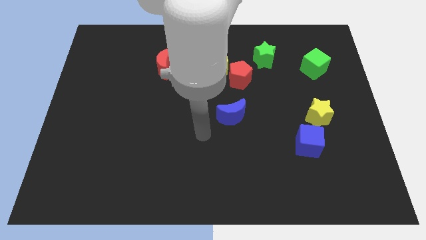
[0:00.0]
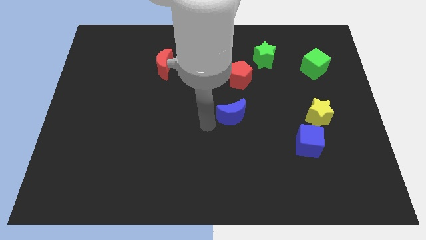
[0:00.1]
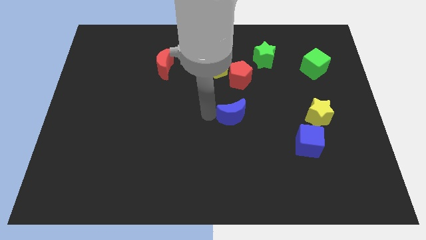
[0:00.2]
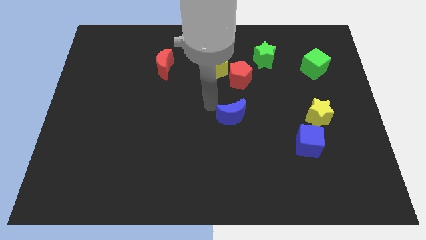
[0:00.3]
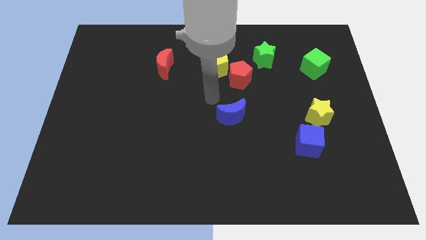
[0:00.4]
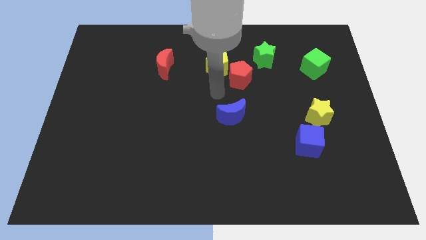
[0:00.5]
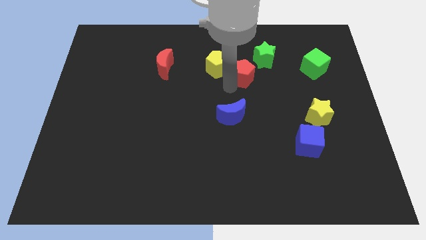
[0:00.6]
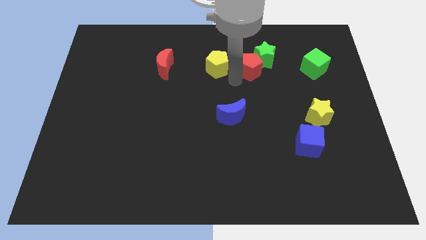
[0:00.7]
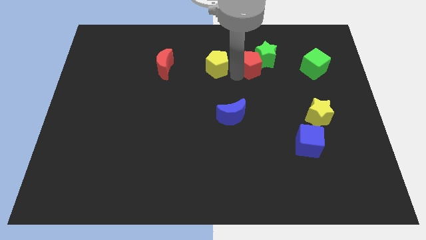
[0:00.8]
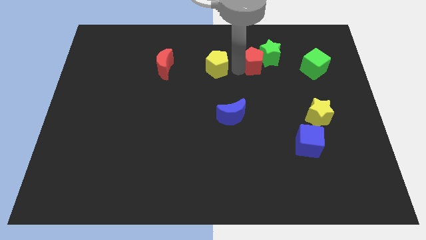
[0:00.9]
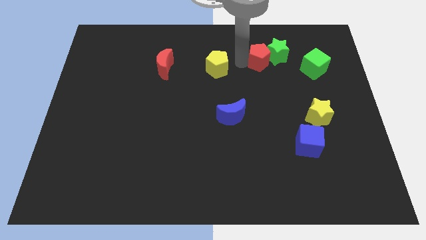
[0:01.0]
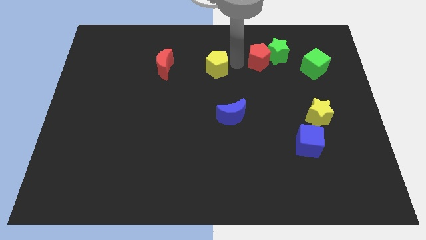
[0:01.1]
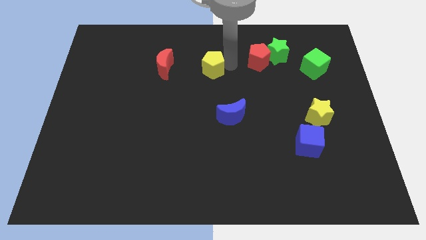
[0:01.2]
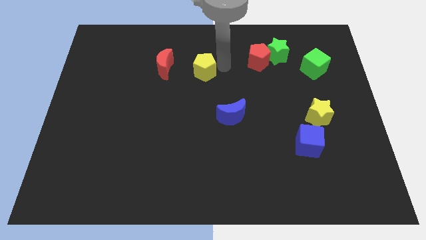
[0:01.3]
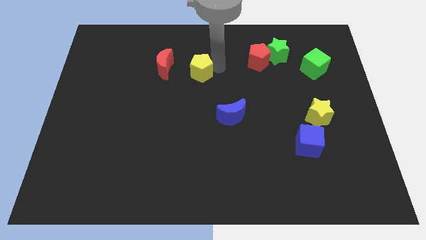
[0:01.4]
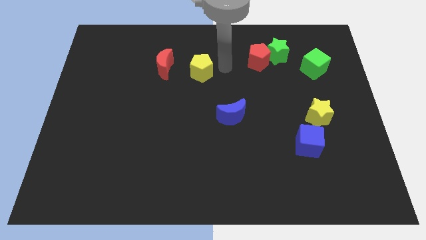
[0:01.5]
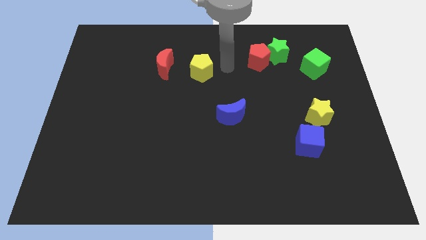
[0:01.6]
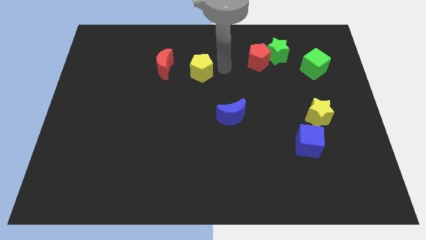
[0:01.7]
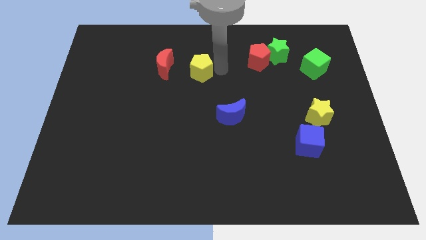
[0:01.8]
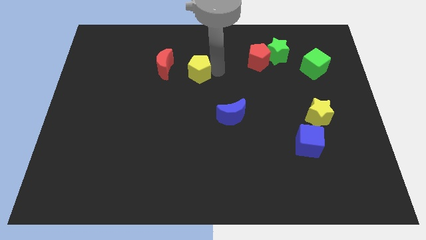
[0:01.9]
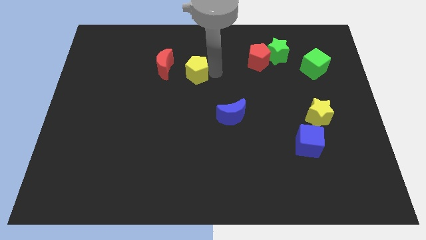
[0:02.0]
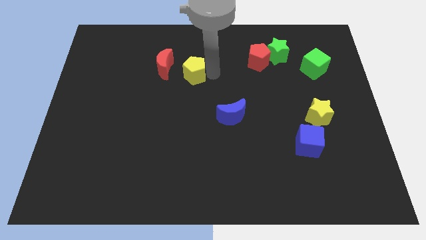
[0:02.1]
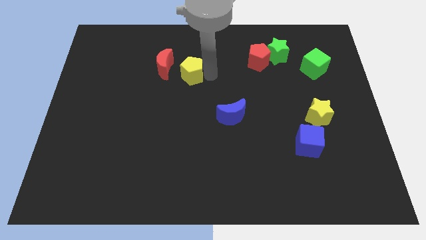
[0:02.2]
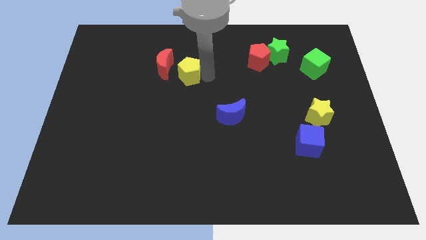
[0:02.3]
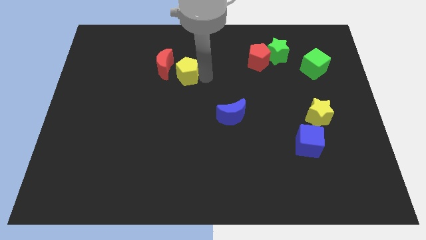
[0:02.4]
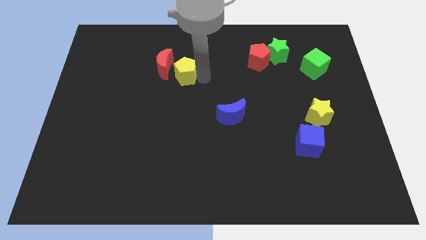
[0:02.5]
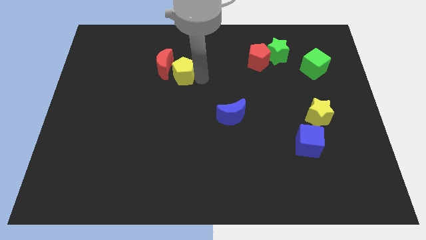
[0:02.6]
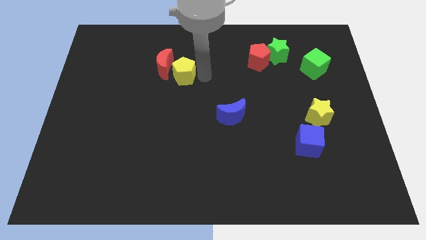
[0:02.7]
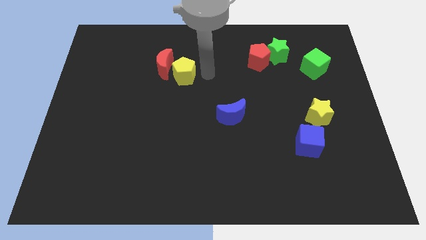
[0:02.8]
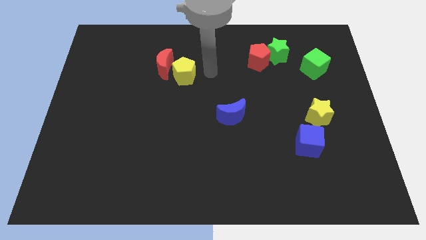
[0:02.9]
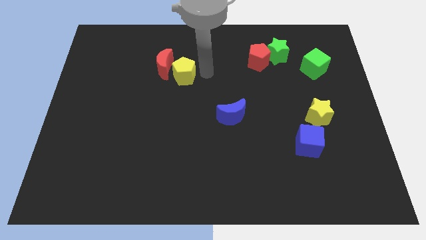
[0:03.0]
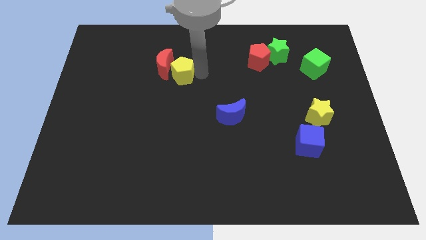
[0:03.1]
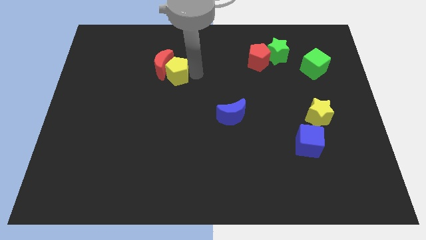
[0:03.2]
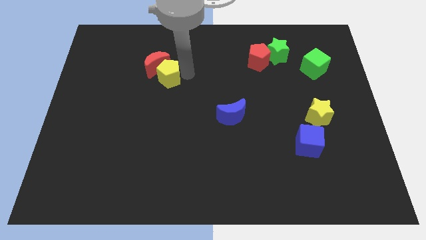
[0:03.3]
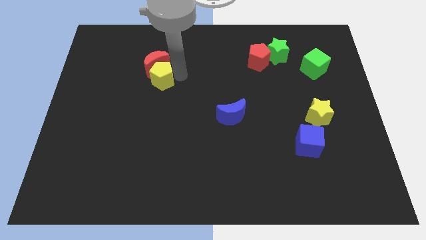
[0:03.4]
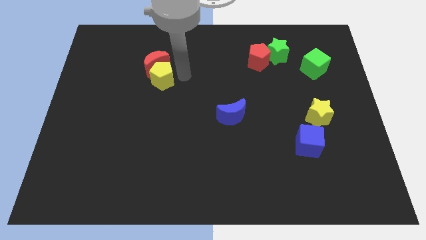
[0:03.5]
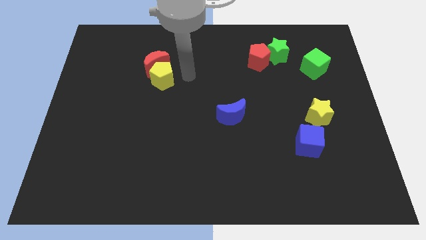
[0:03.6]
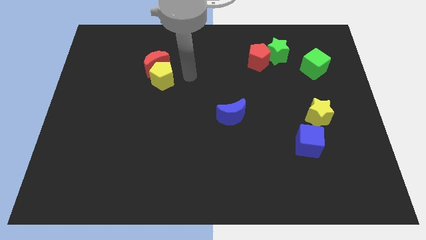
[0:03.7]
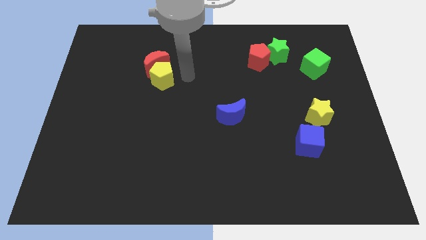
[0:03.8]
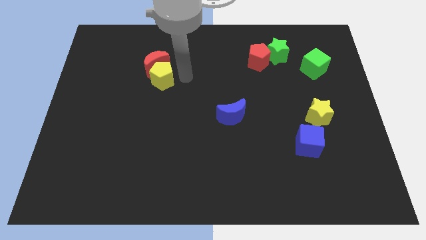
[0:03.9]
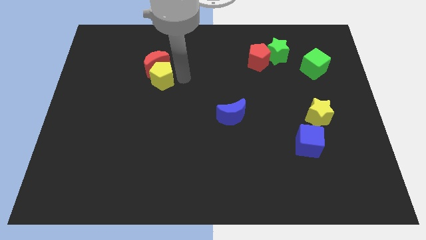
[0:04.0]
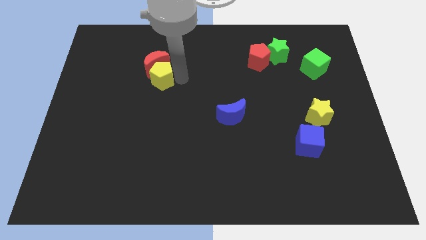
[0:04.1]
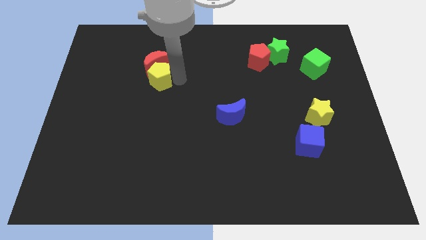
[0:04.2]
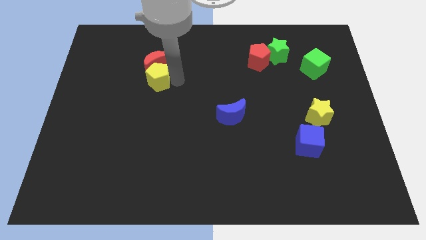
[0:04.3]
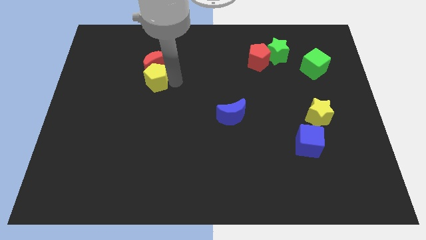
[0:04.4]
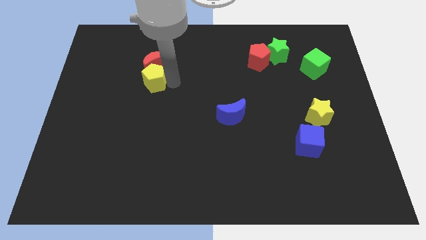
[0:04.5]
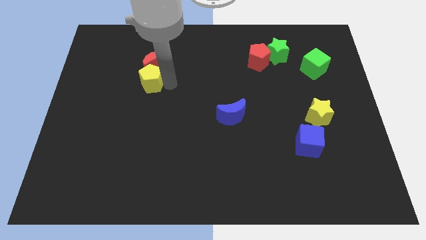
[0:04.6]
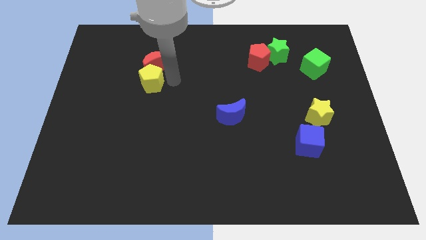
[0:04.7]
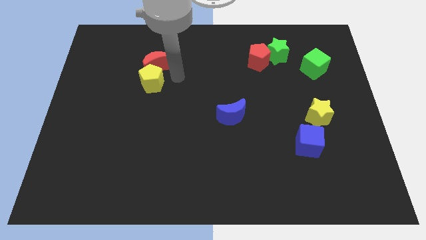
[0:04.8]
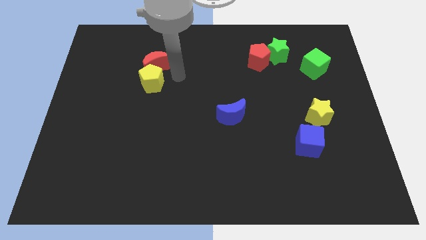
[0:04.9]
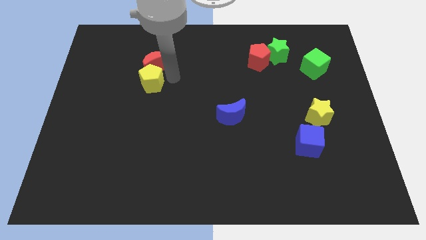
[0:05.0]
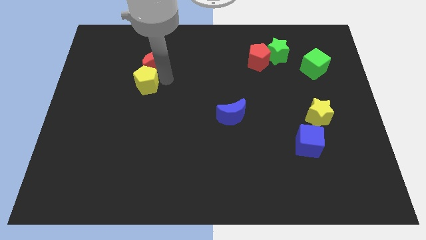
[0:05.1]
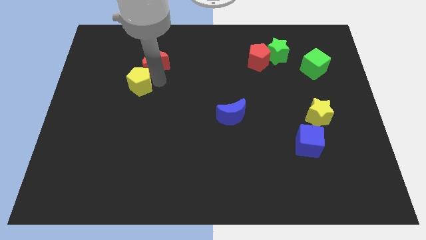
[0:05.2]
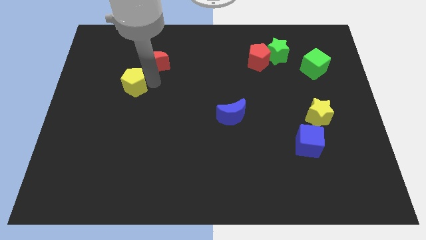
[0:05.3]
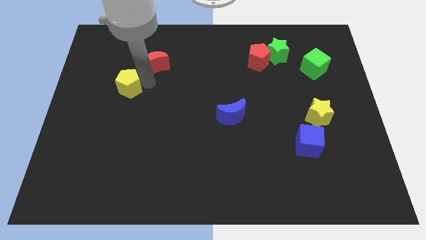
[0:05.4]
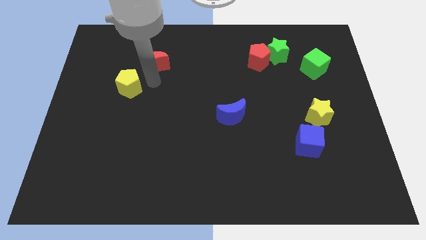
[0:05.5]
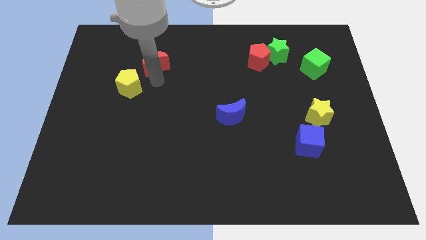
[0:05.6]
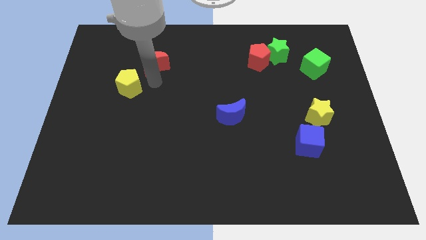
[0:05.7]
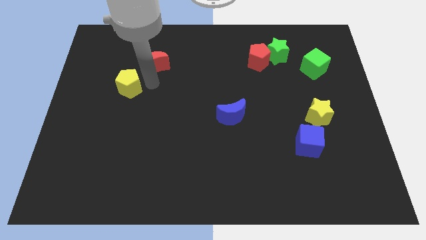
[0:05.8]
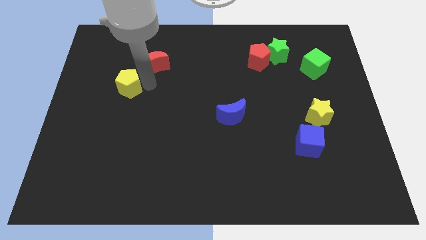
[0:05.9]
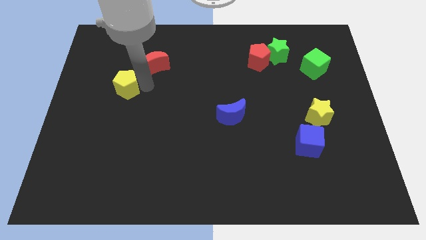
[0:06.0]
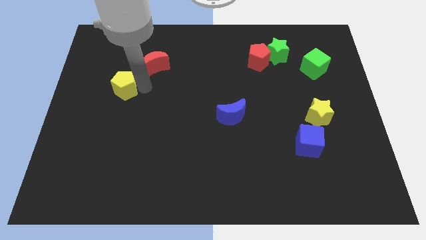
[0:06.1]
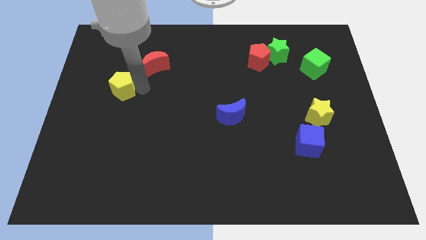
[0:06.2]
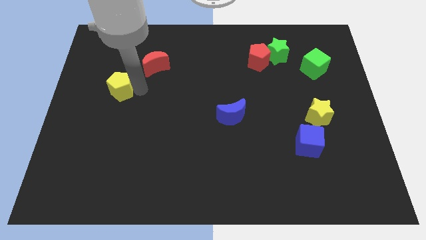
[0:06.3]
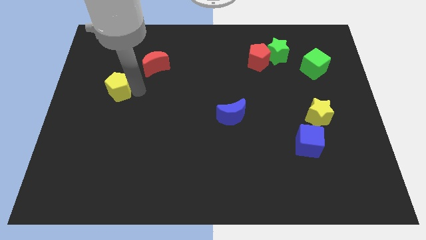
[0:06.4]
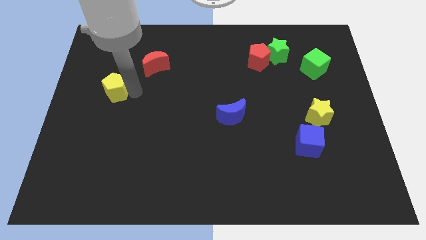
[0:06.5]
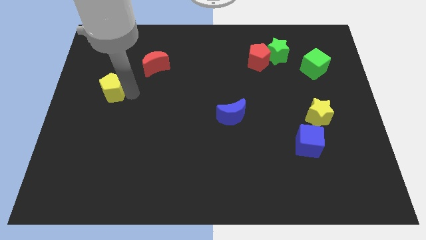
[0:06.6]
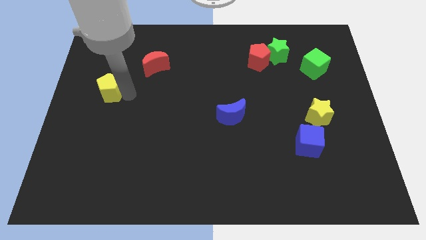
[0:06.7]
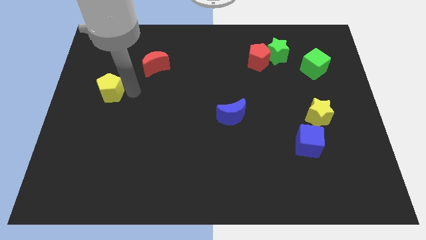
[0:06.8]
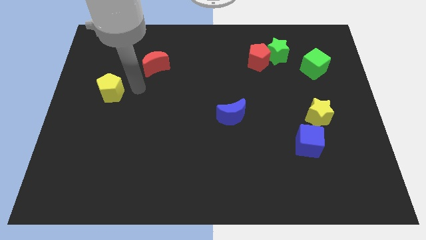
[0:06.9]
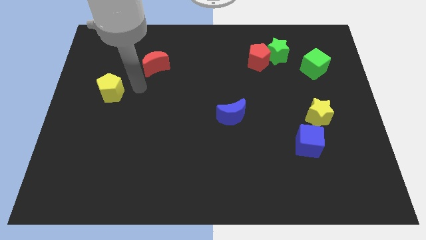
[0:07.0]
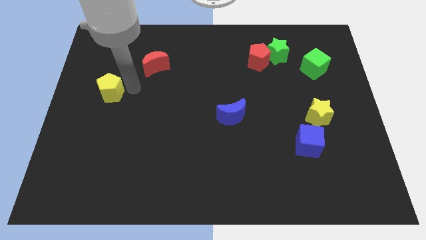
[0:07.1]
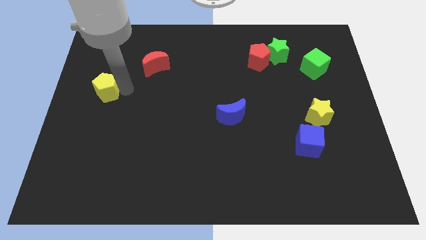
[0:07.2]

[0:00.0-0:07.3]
push the yellow pentagon to the center left
